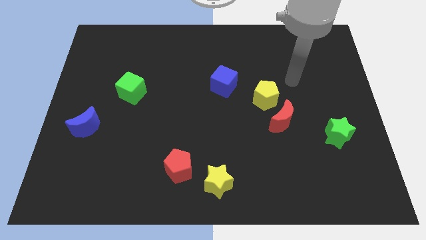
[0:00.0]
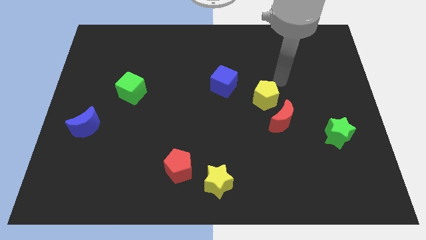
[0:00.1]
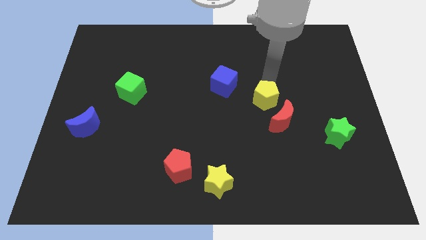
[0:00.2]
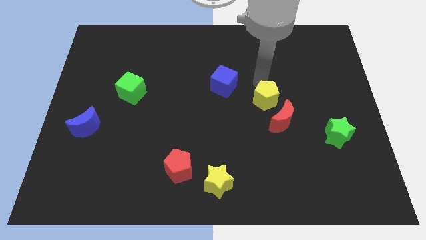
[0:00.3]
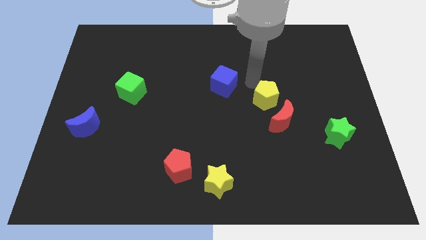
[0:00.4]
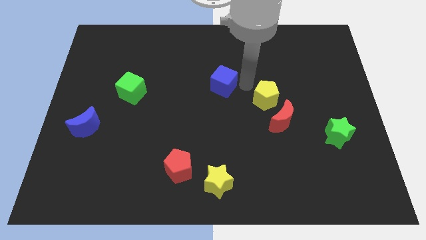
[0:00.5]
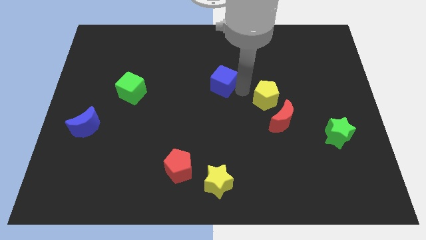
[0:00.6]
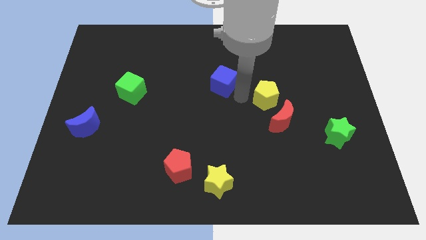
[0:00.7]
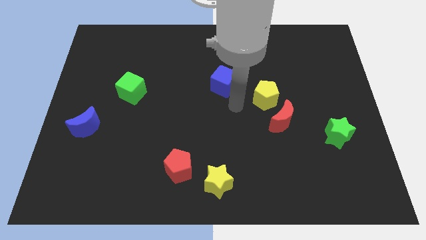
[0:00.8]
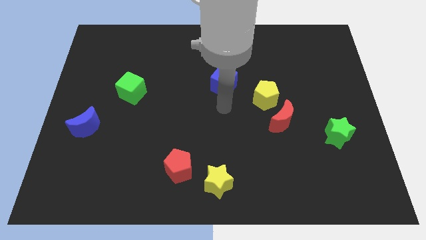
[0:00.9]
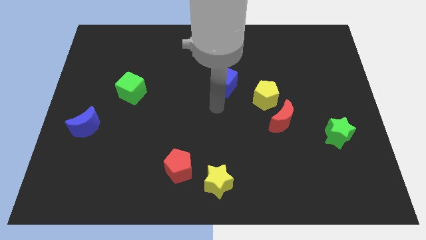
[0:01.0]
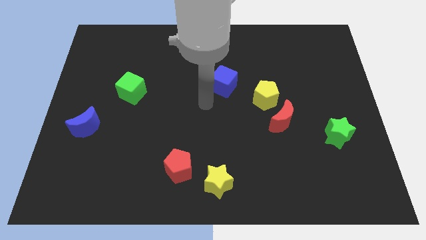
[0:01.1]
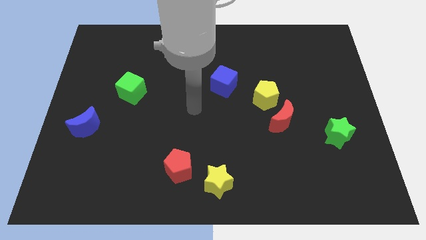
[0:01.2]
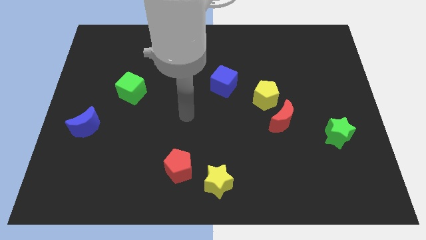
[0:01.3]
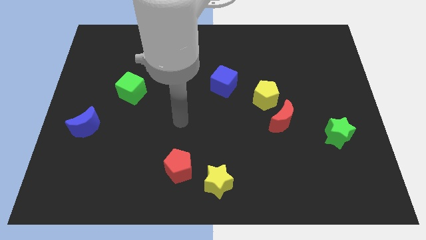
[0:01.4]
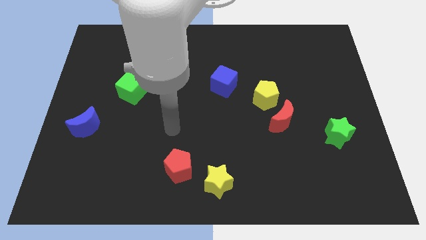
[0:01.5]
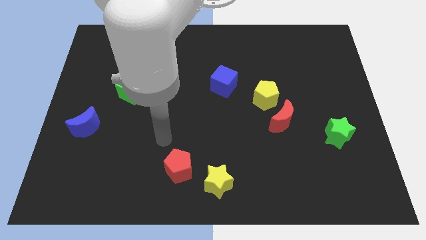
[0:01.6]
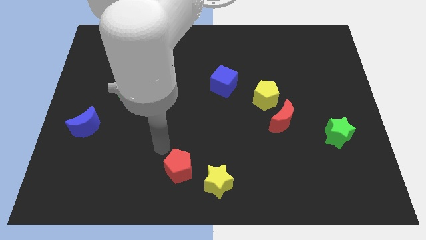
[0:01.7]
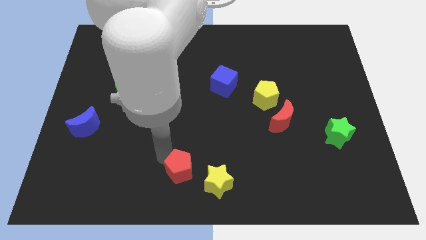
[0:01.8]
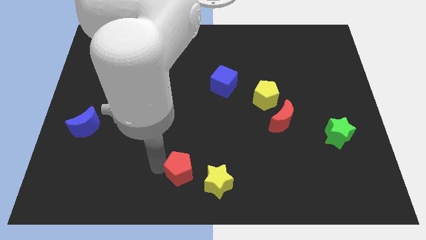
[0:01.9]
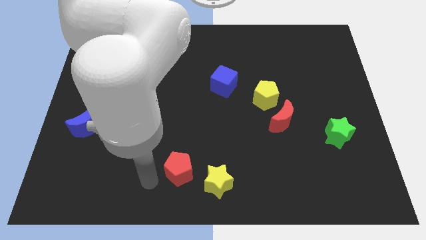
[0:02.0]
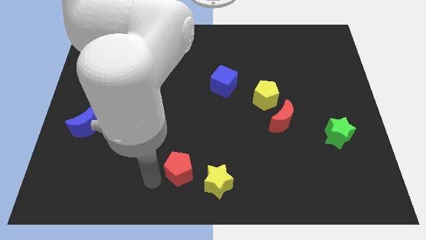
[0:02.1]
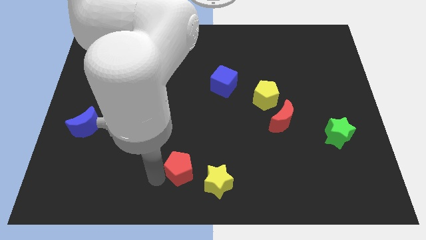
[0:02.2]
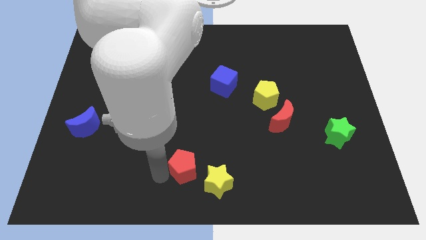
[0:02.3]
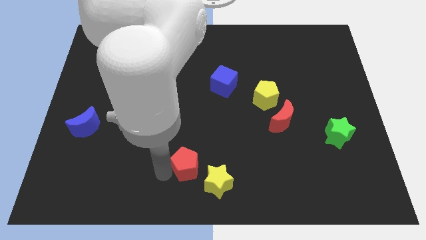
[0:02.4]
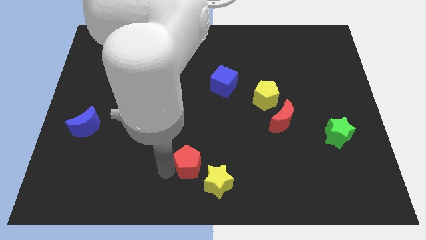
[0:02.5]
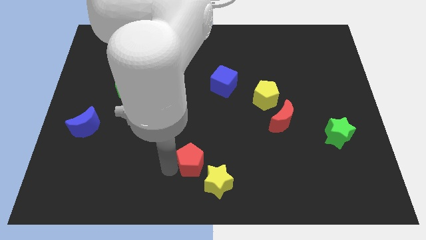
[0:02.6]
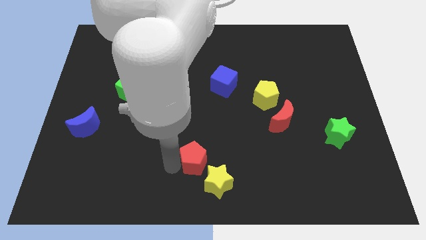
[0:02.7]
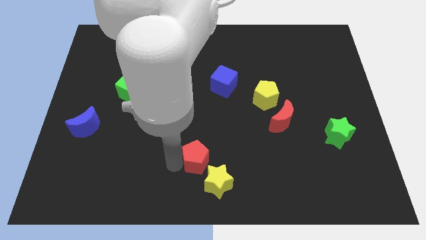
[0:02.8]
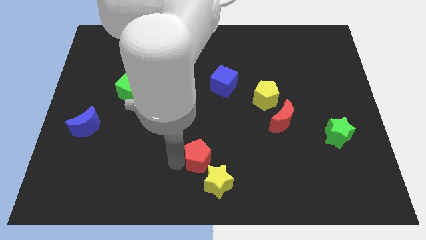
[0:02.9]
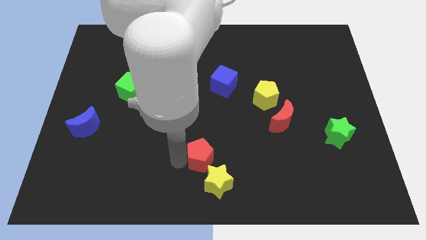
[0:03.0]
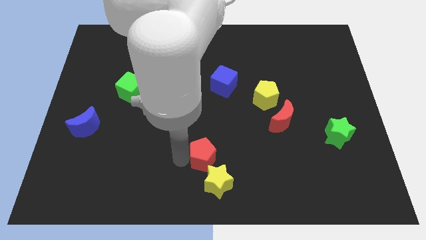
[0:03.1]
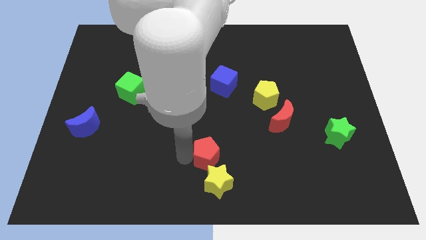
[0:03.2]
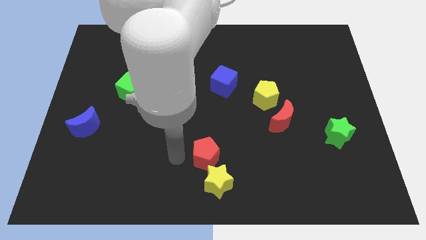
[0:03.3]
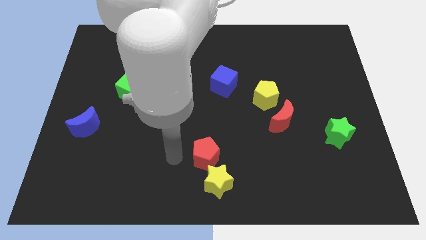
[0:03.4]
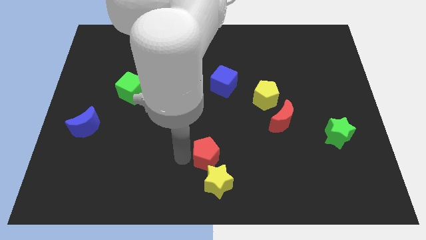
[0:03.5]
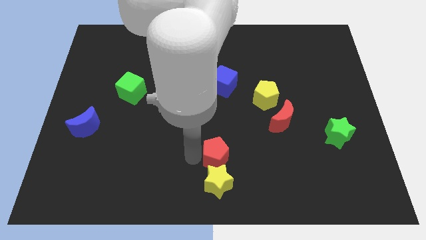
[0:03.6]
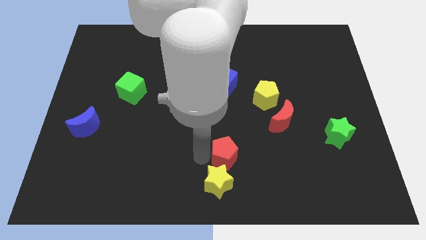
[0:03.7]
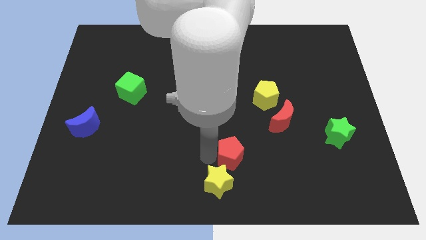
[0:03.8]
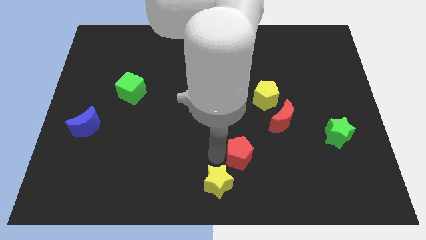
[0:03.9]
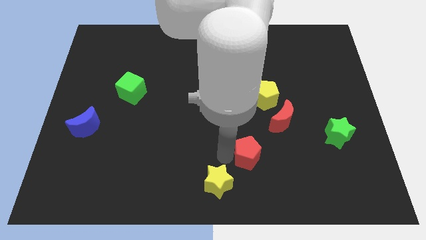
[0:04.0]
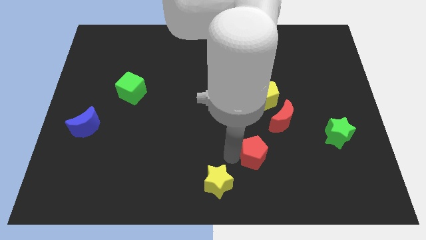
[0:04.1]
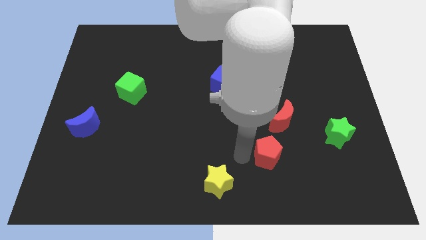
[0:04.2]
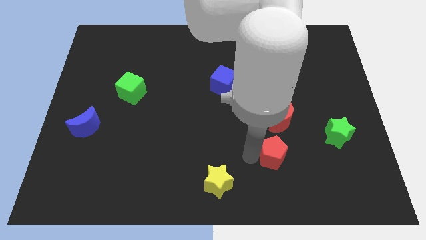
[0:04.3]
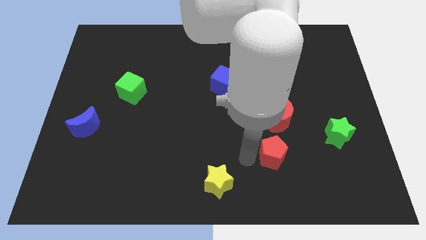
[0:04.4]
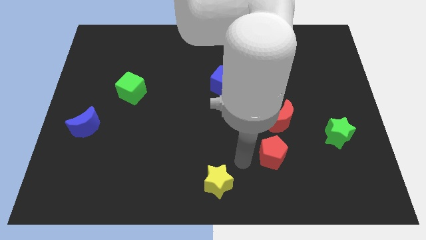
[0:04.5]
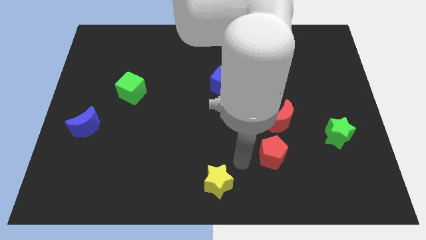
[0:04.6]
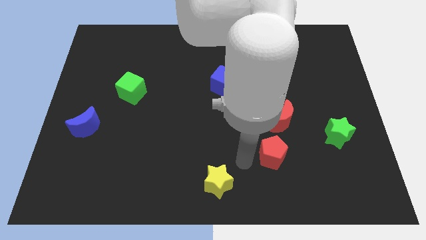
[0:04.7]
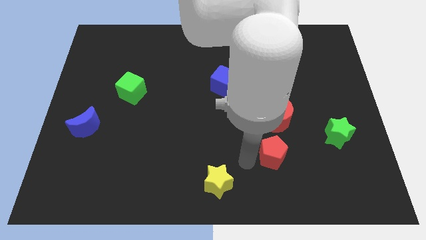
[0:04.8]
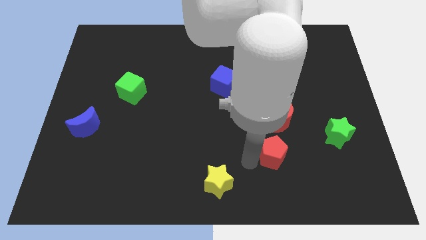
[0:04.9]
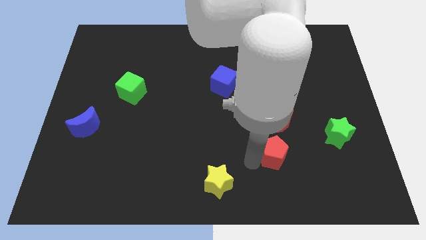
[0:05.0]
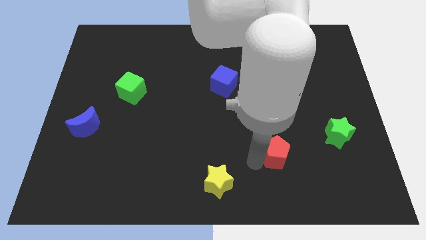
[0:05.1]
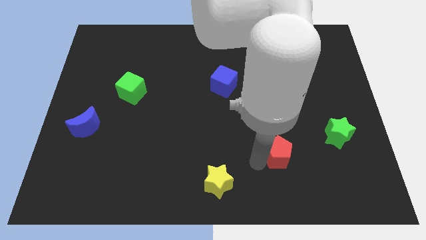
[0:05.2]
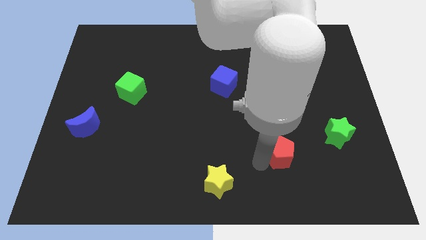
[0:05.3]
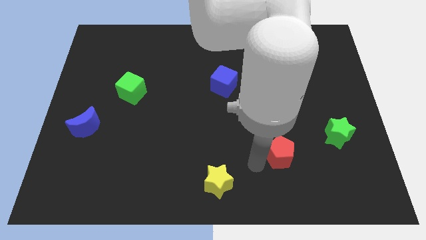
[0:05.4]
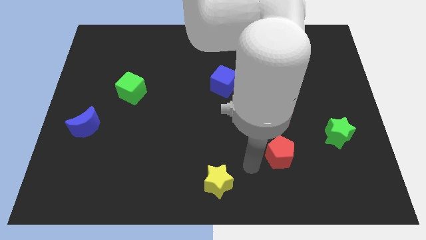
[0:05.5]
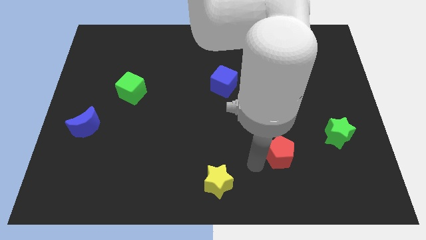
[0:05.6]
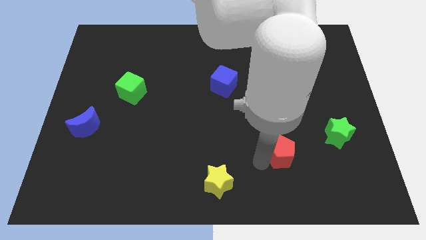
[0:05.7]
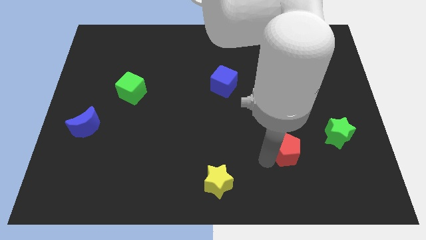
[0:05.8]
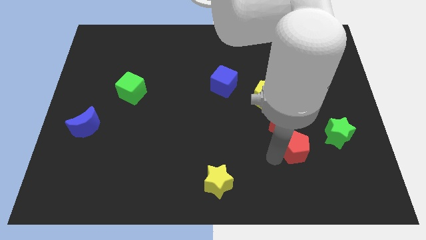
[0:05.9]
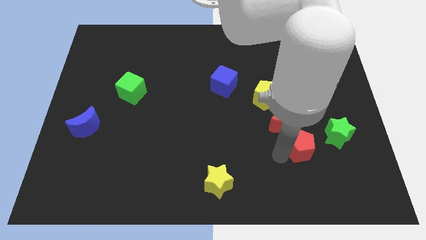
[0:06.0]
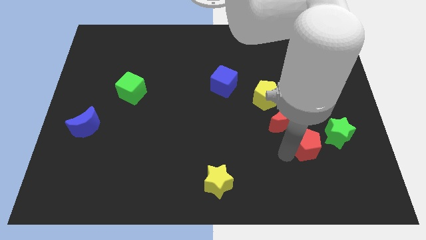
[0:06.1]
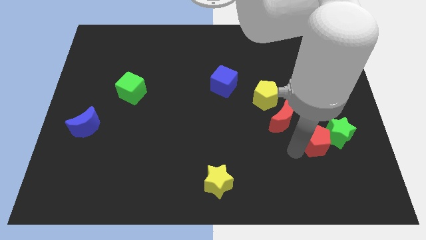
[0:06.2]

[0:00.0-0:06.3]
move the red pentagon close to the green star

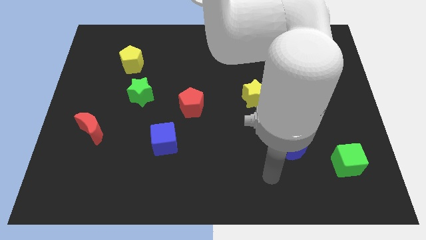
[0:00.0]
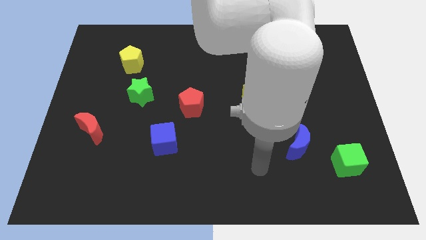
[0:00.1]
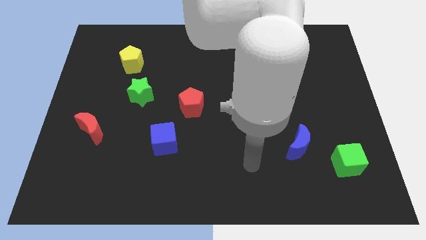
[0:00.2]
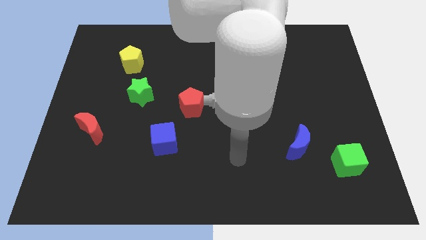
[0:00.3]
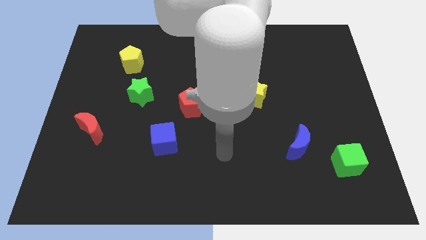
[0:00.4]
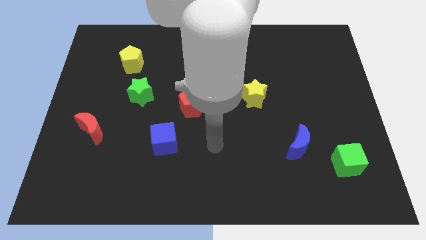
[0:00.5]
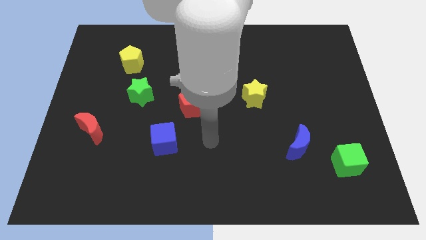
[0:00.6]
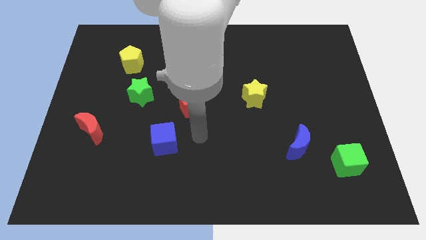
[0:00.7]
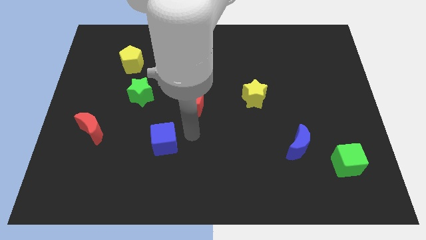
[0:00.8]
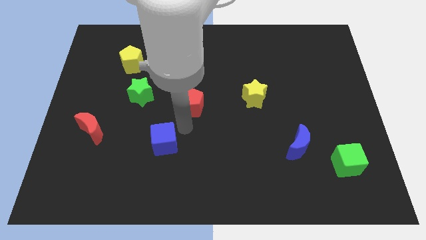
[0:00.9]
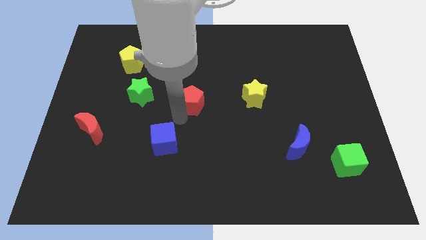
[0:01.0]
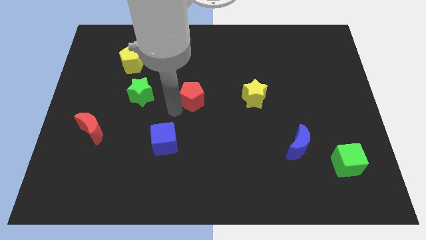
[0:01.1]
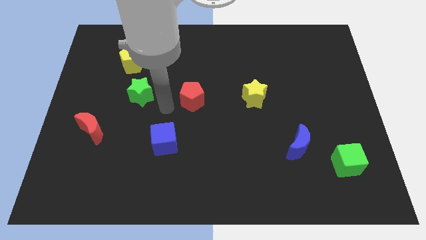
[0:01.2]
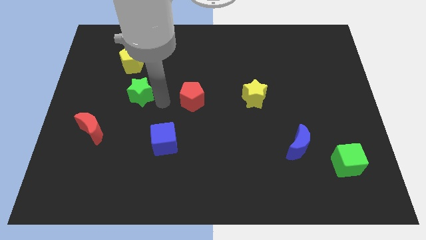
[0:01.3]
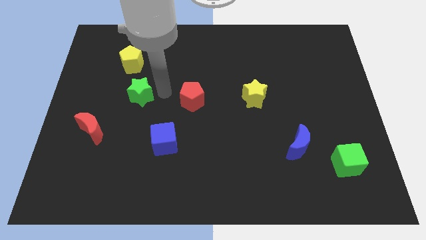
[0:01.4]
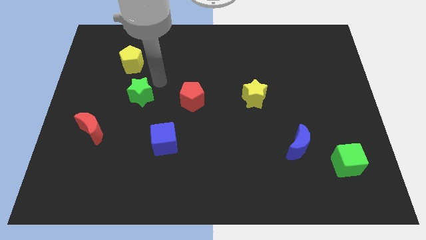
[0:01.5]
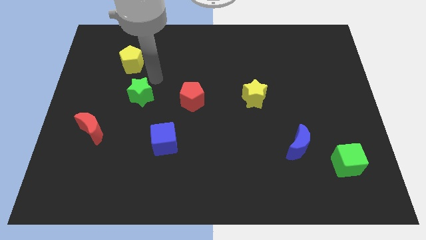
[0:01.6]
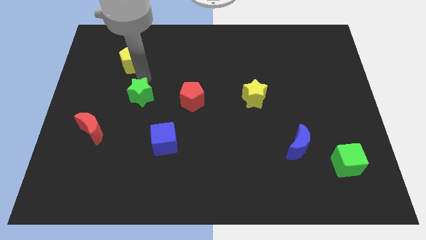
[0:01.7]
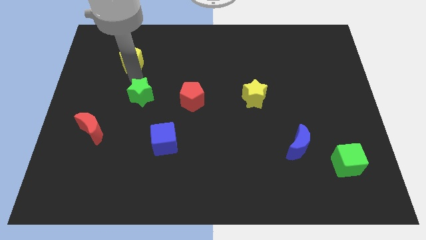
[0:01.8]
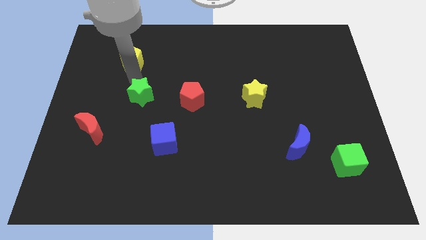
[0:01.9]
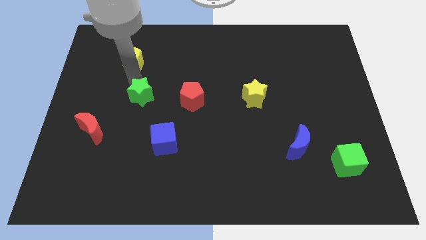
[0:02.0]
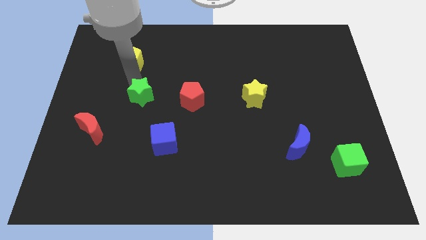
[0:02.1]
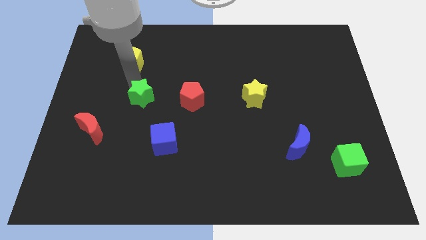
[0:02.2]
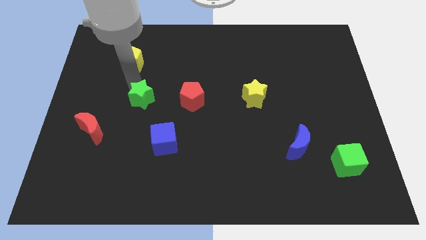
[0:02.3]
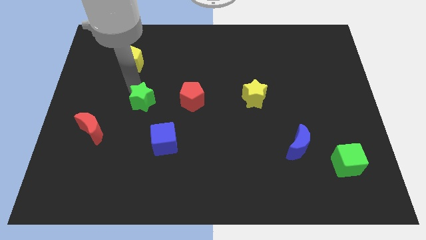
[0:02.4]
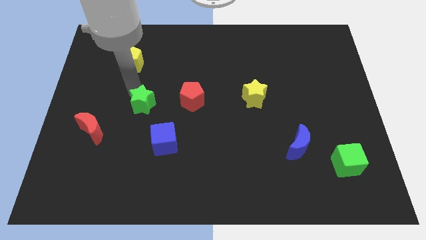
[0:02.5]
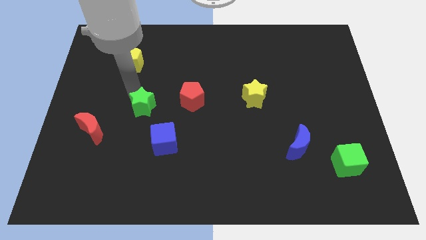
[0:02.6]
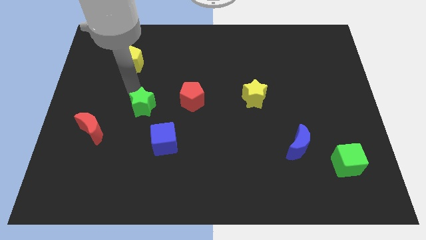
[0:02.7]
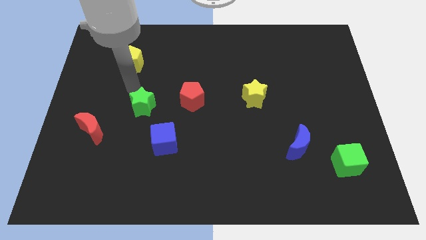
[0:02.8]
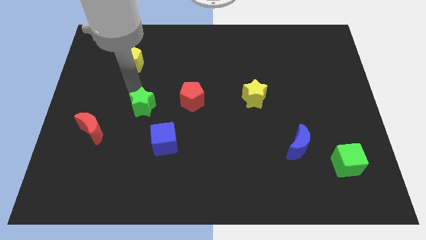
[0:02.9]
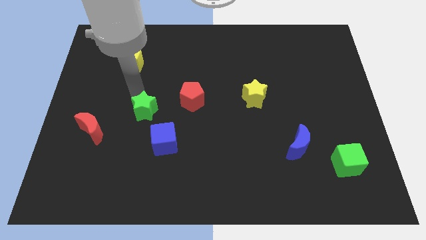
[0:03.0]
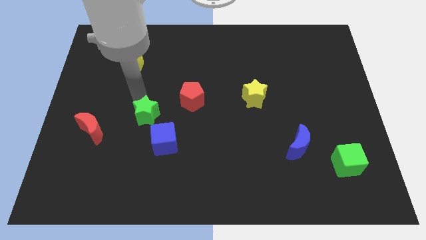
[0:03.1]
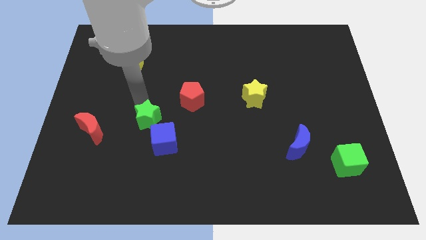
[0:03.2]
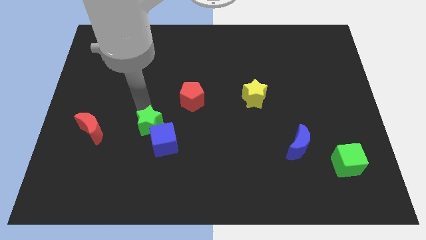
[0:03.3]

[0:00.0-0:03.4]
move the green star next to the blue cube
